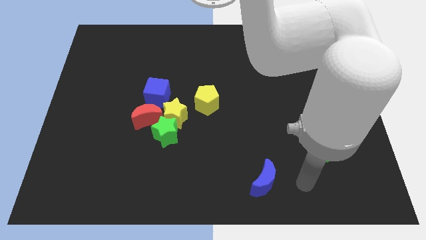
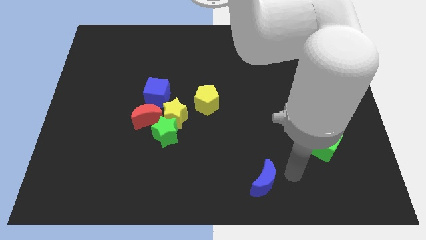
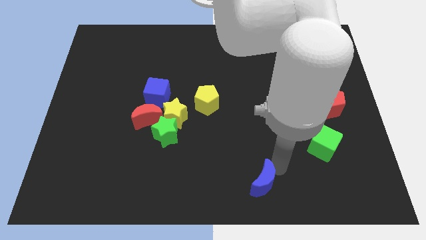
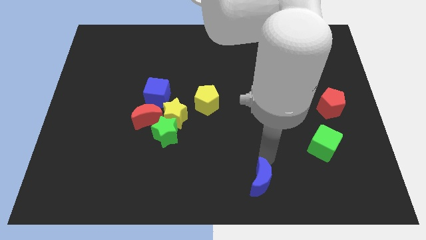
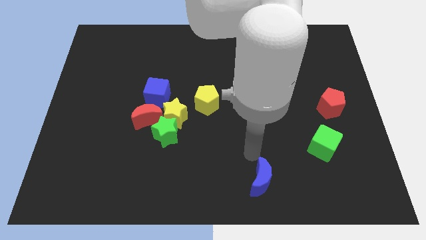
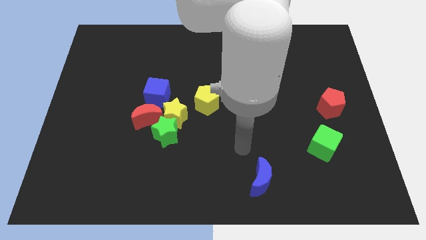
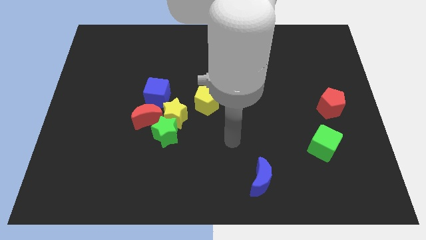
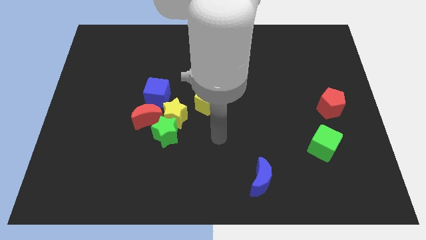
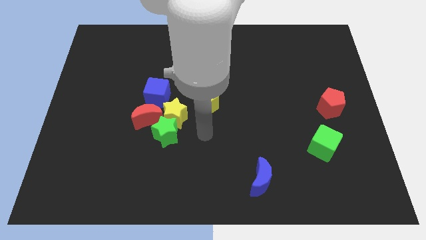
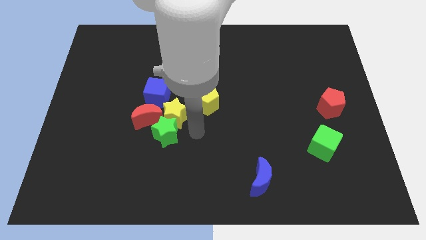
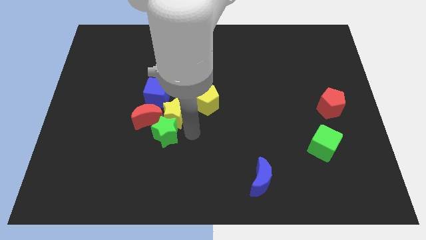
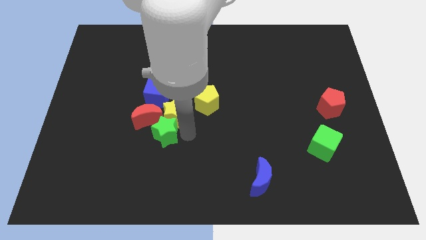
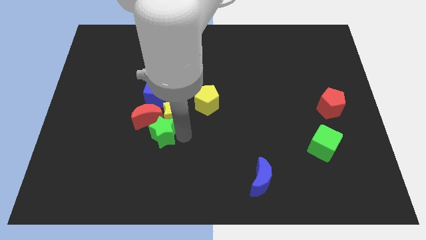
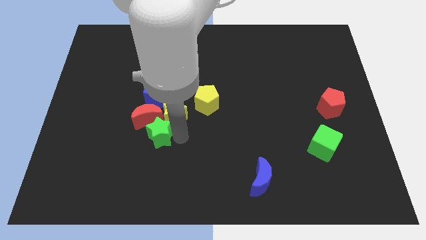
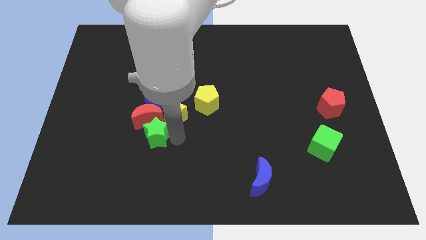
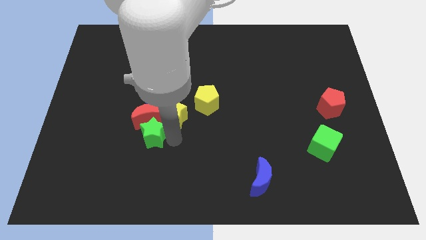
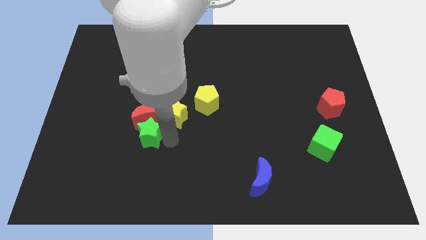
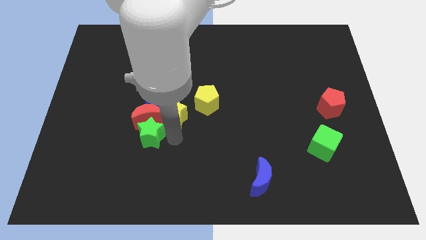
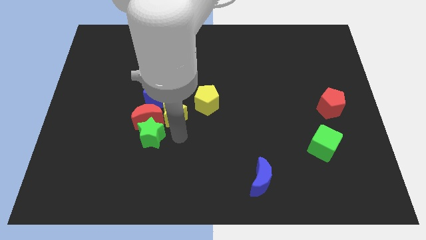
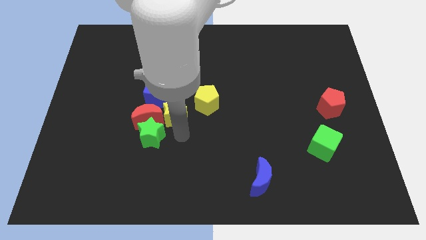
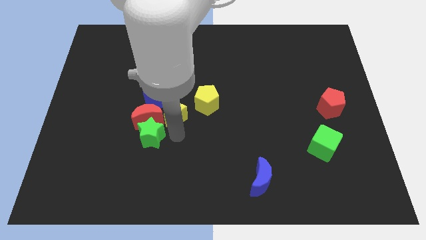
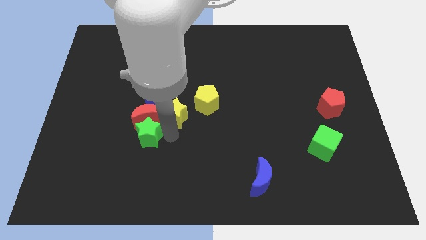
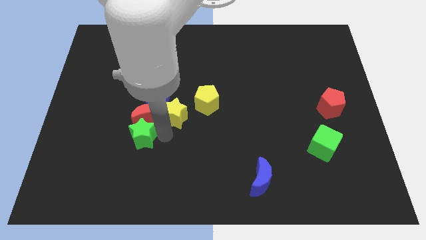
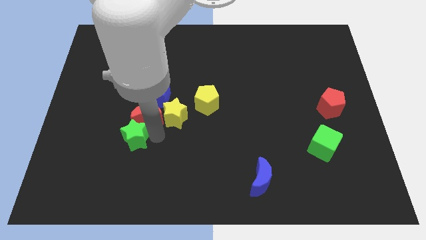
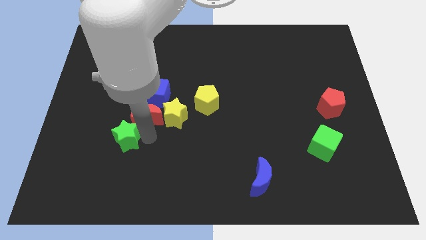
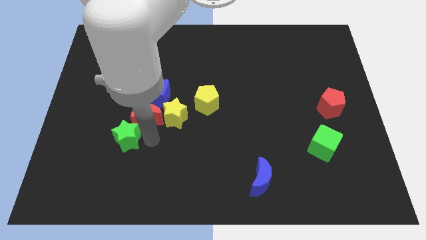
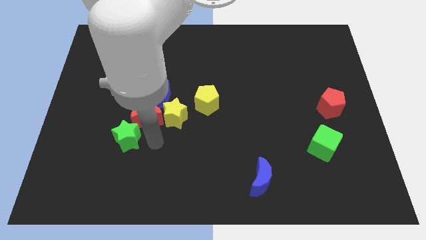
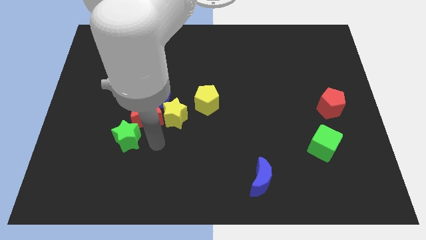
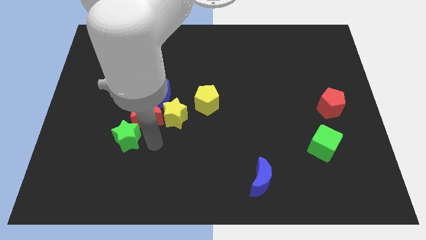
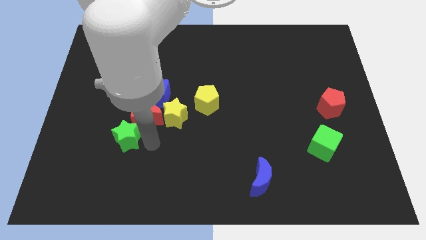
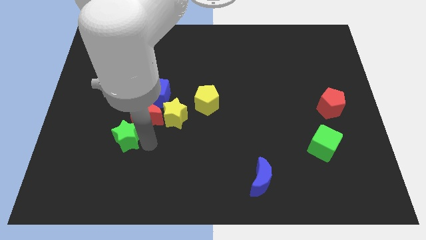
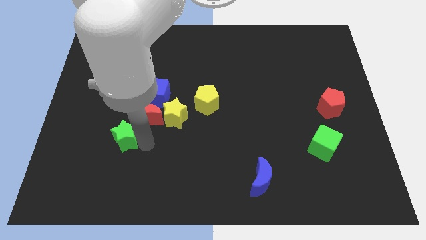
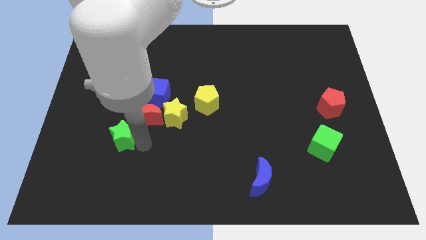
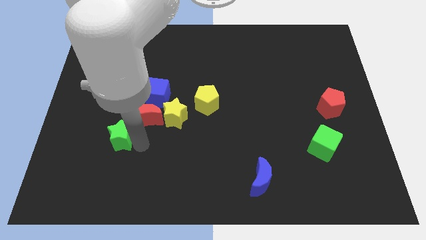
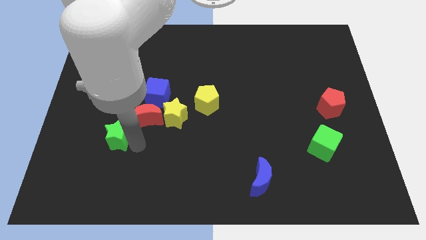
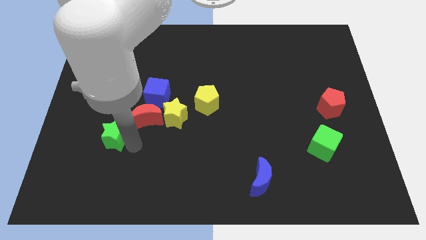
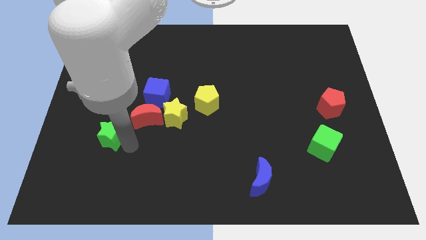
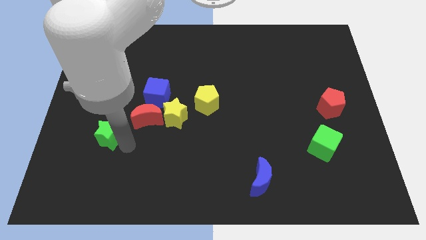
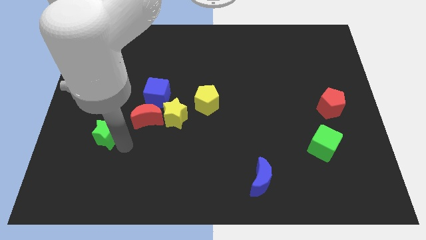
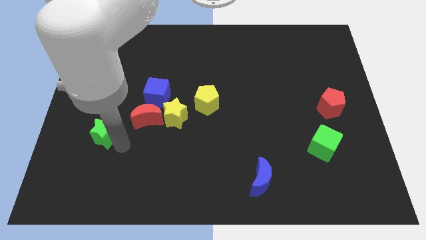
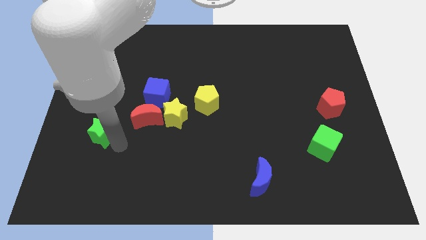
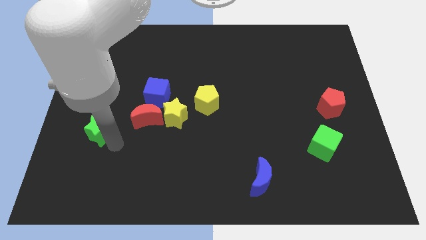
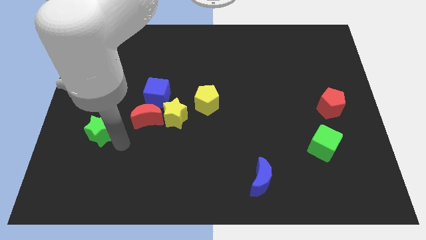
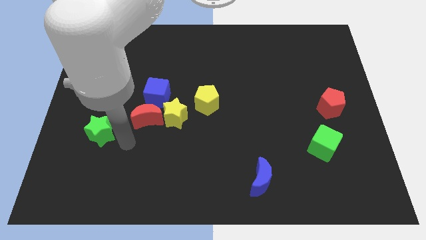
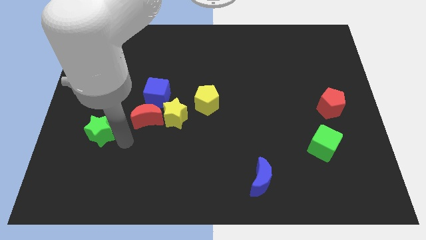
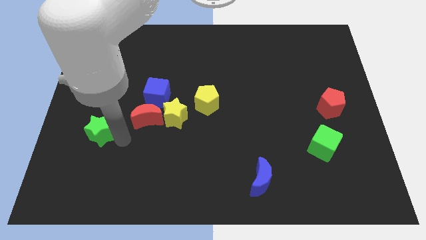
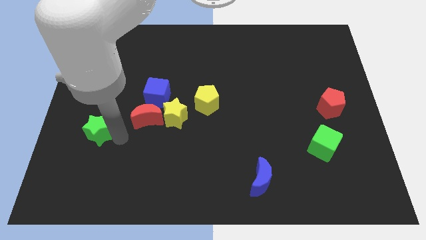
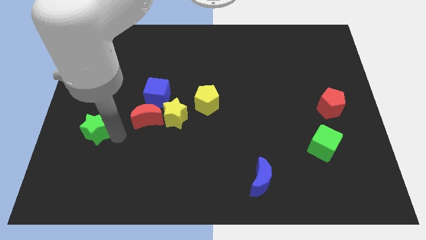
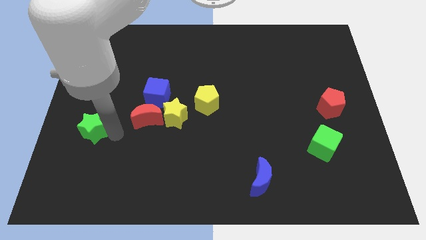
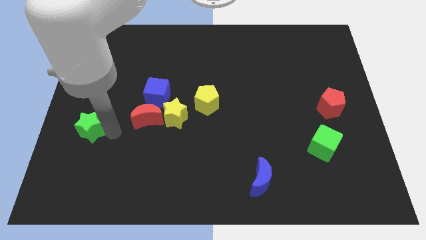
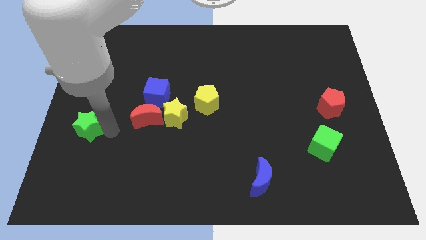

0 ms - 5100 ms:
slide the green star to the left side of the board
